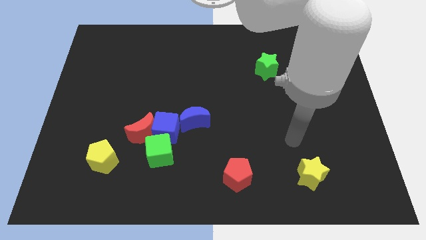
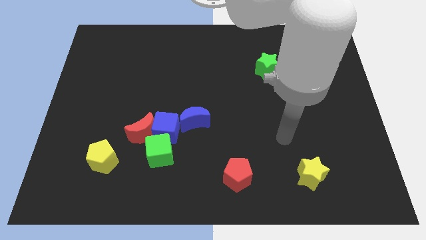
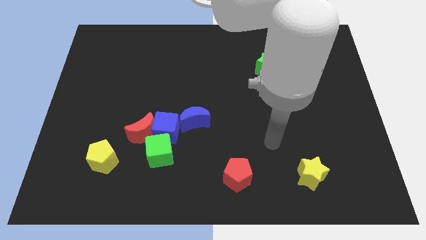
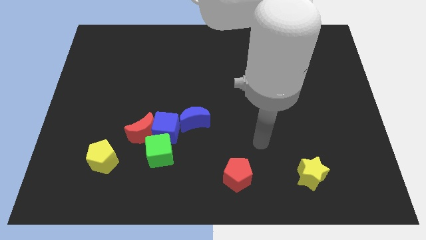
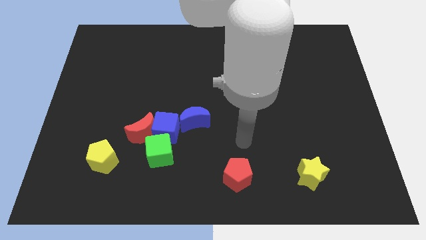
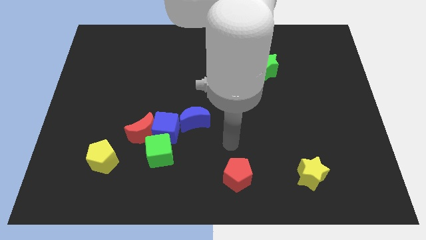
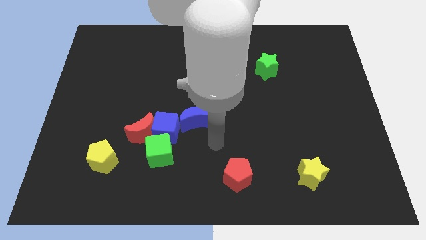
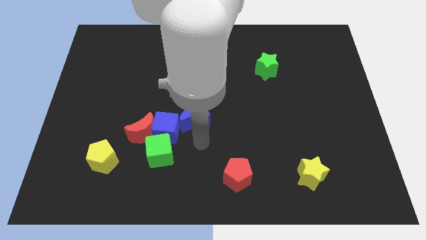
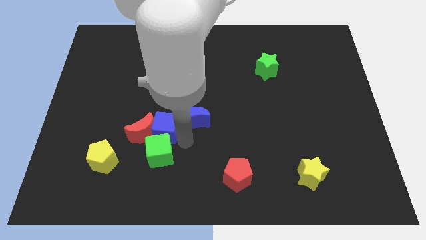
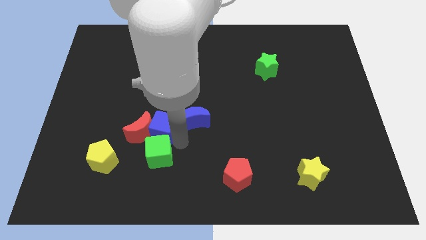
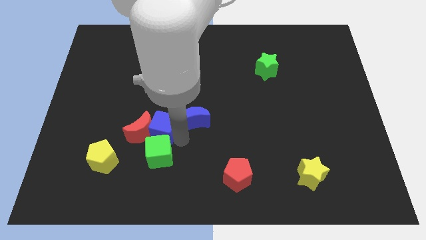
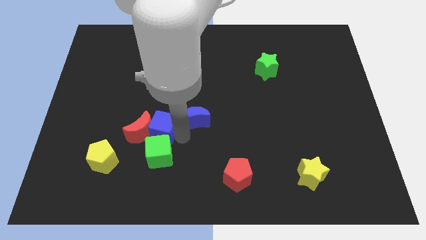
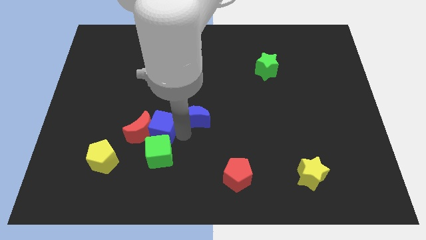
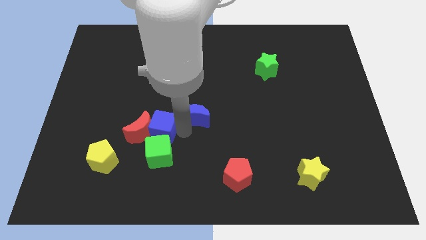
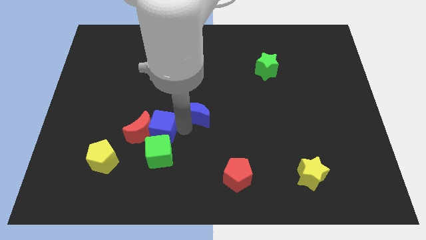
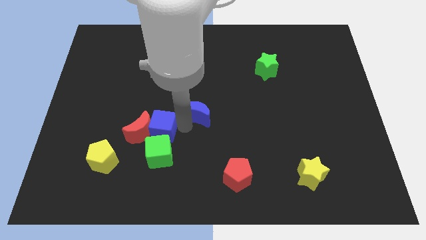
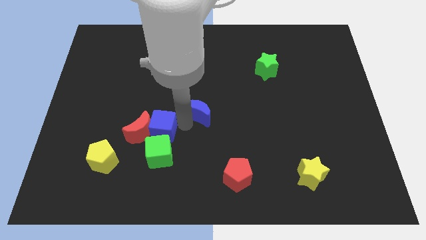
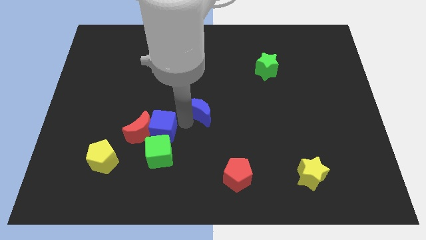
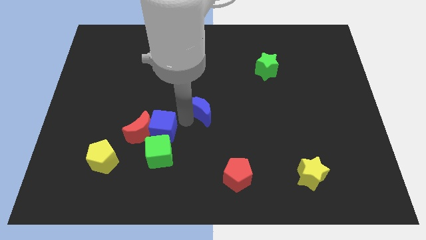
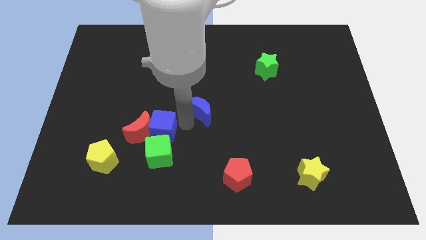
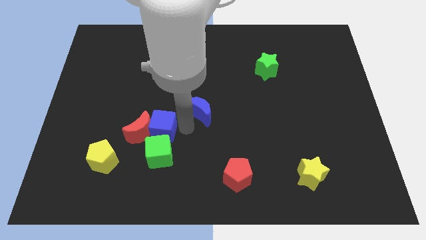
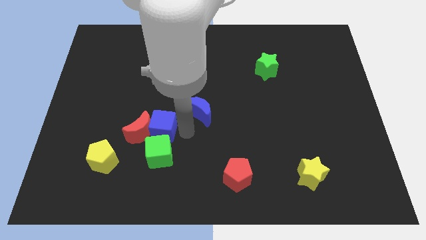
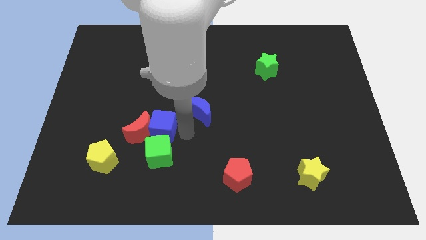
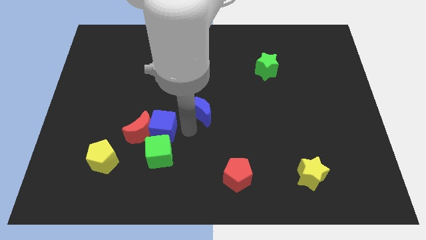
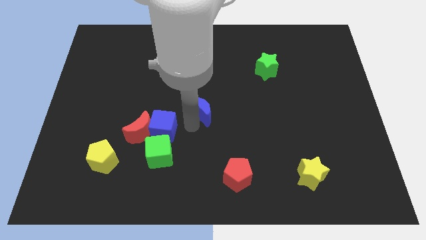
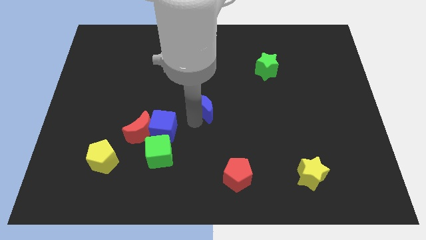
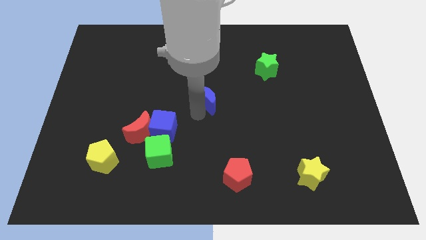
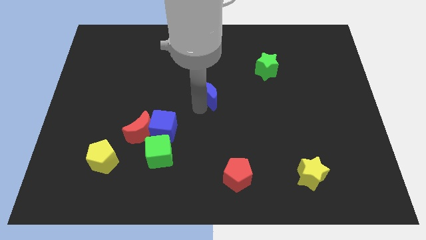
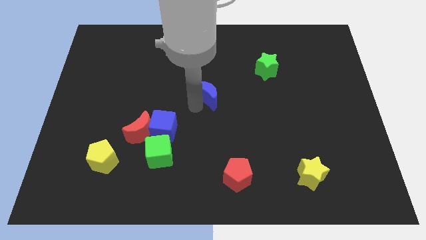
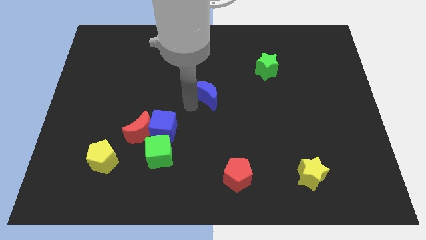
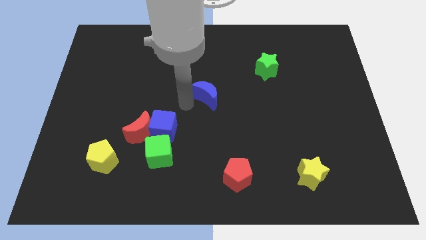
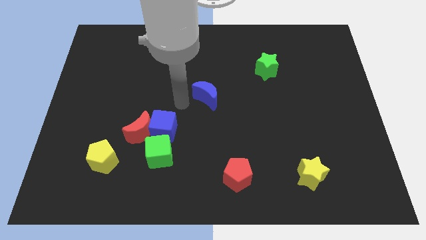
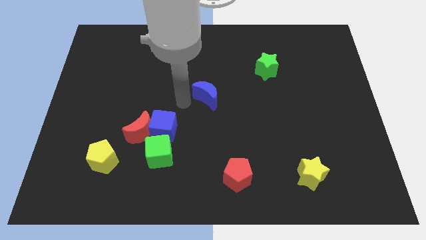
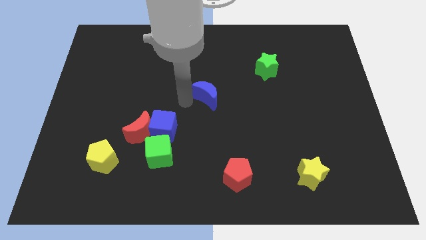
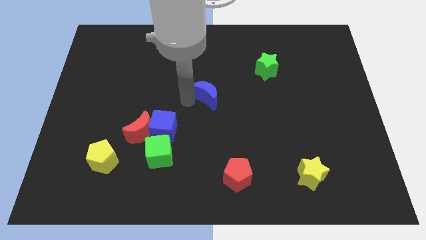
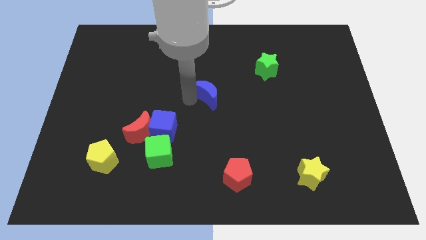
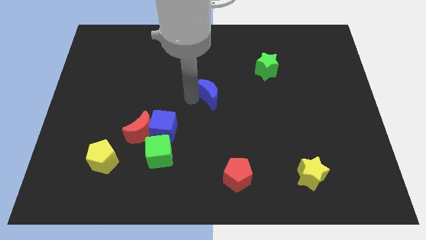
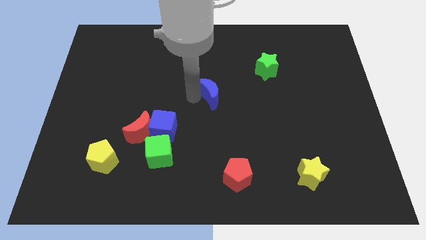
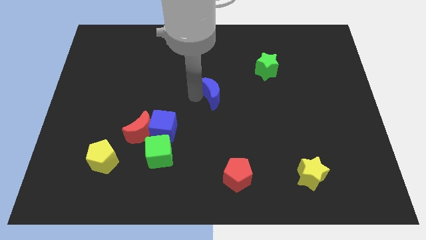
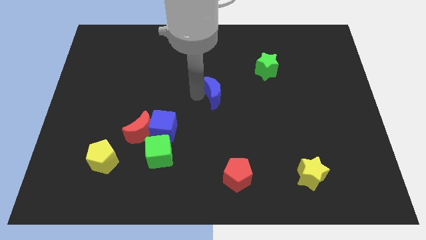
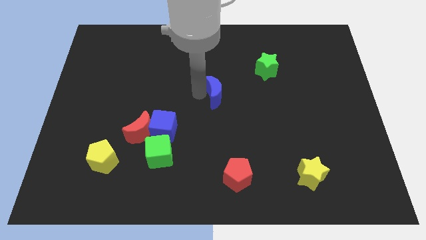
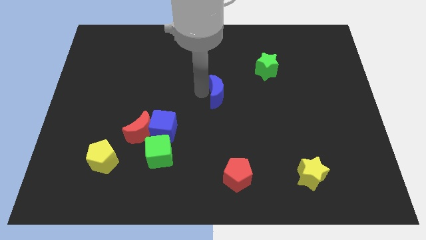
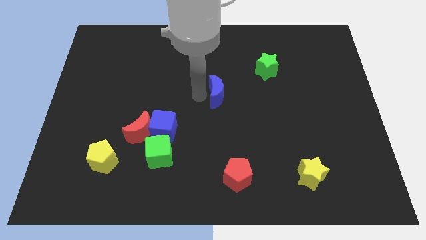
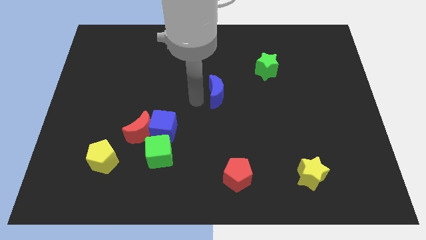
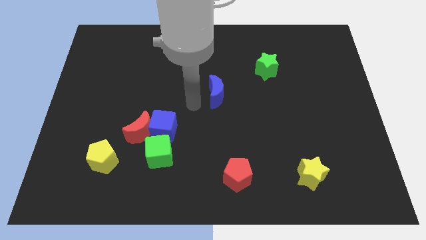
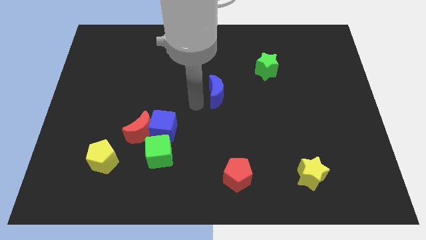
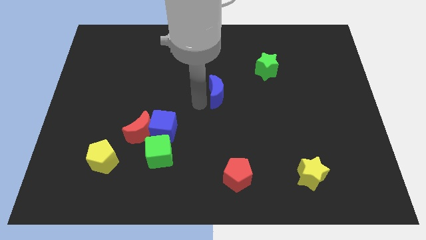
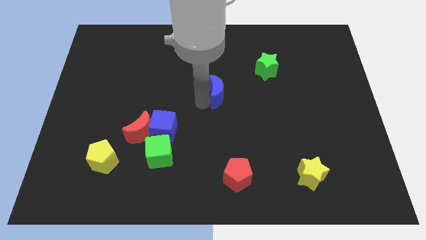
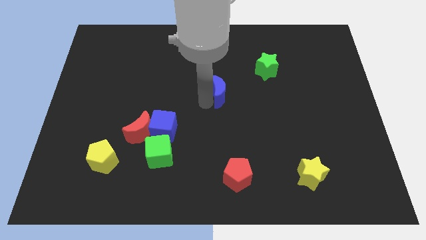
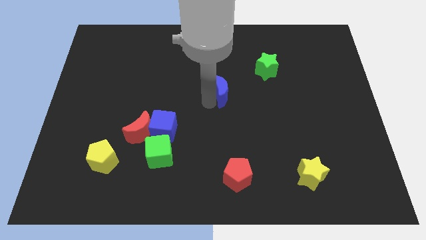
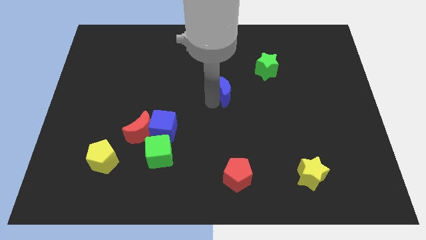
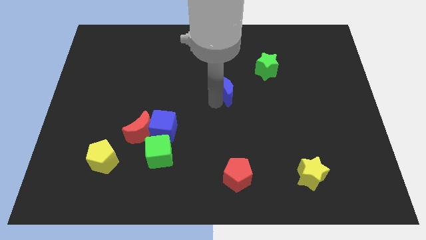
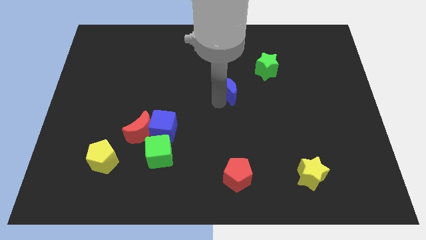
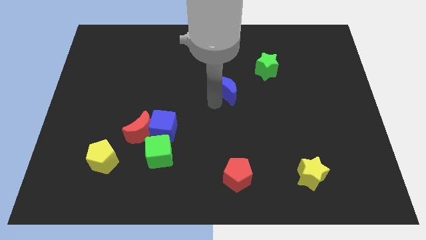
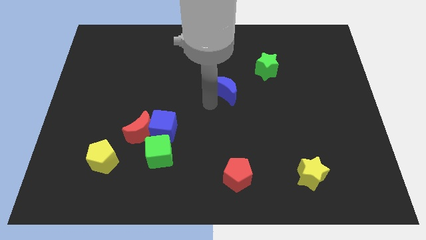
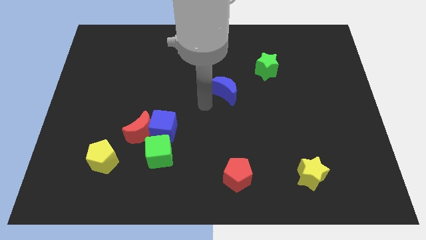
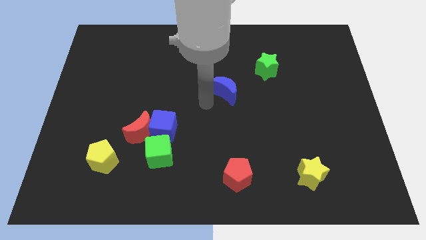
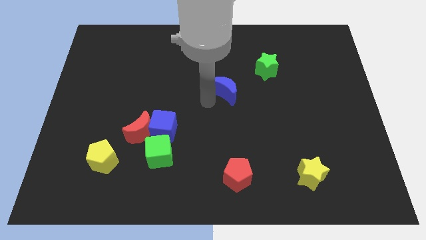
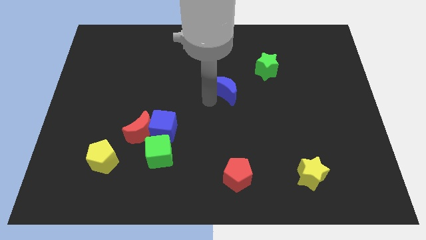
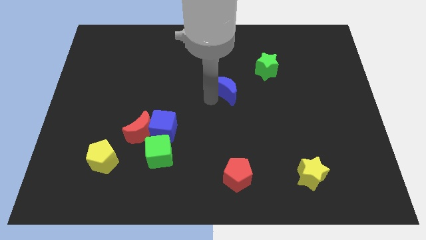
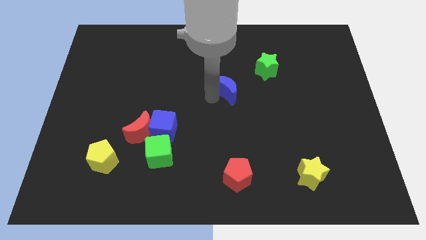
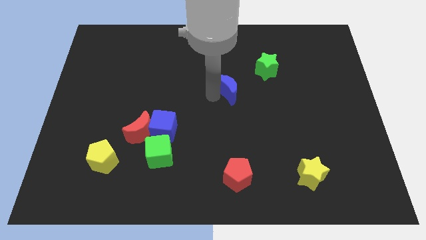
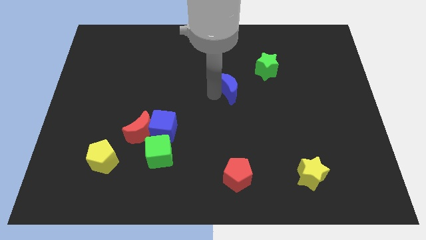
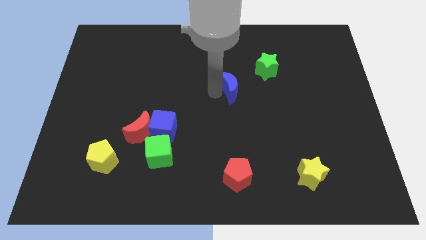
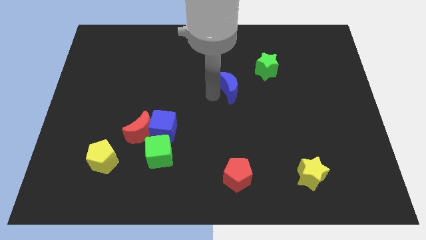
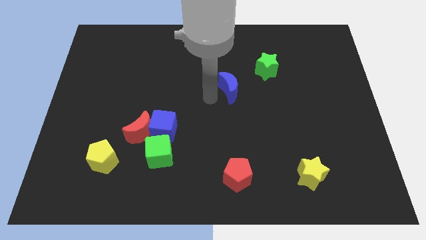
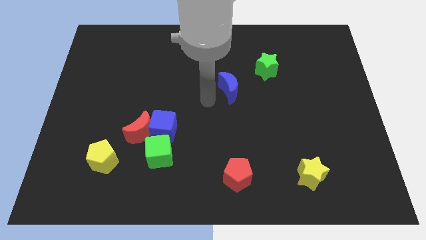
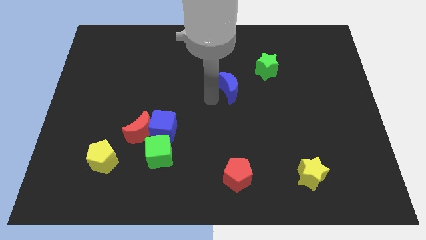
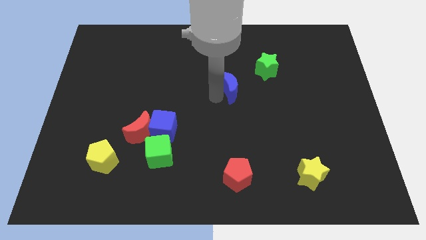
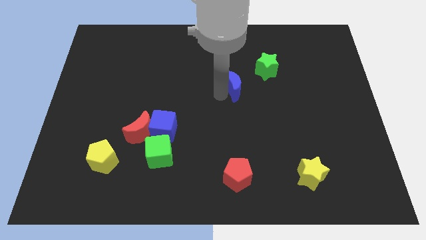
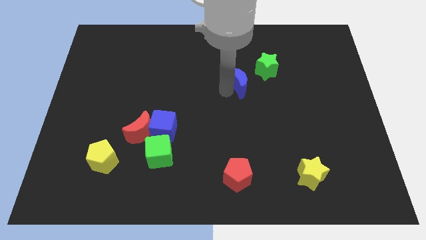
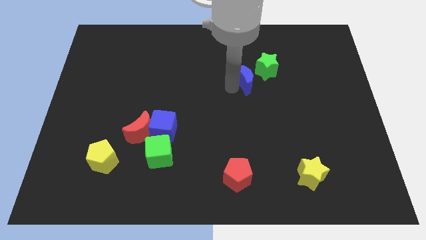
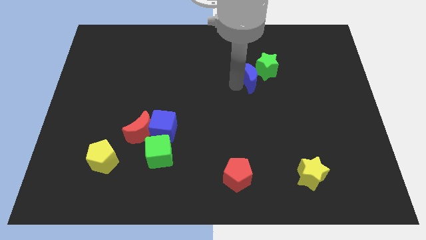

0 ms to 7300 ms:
put the blue moon towards the green star

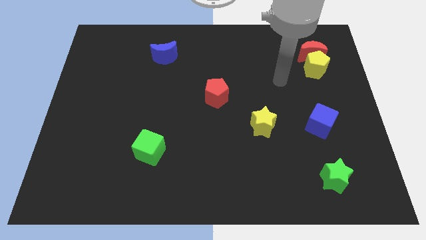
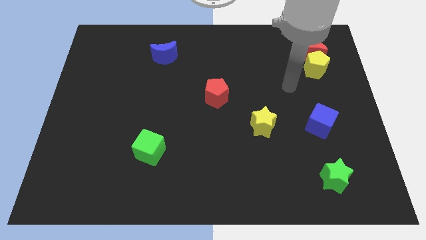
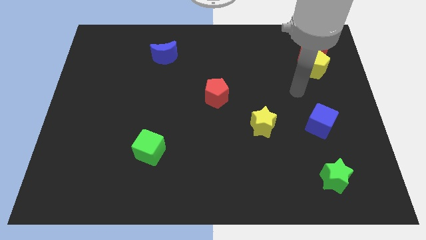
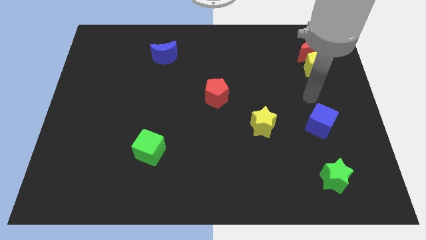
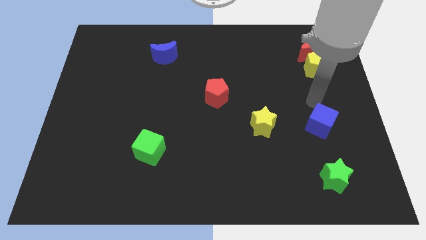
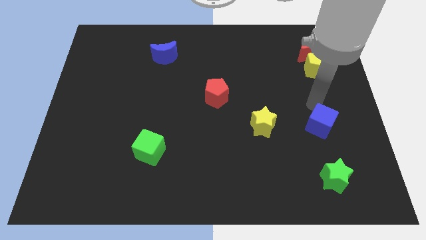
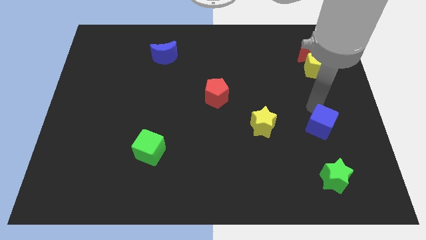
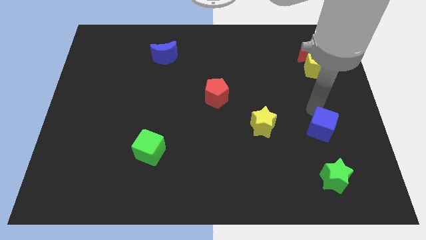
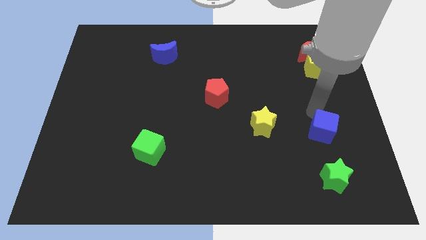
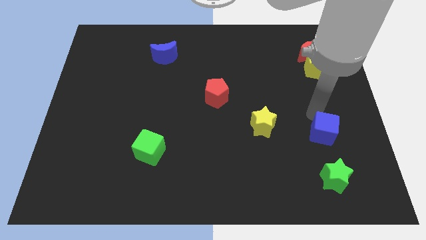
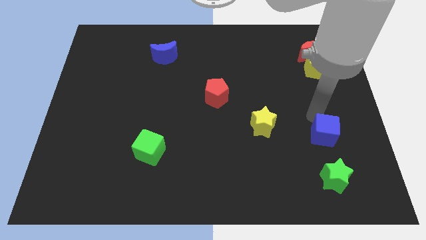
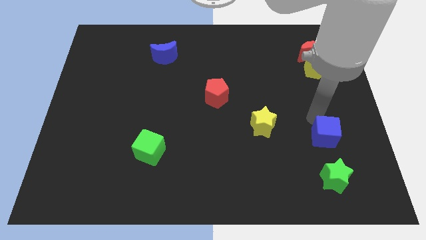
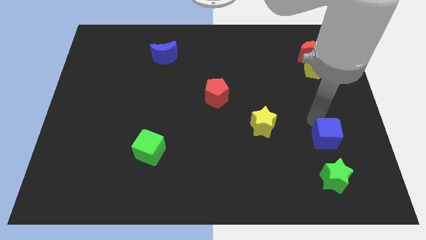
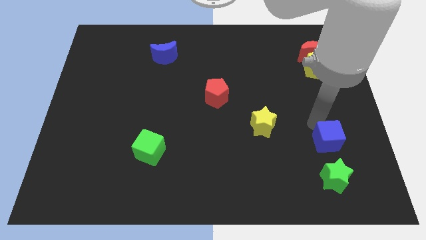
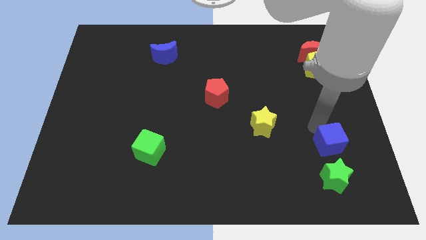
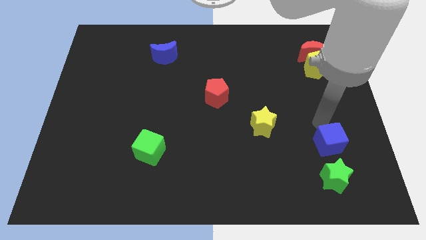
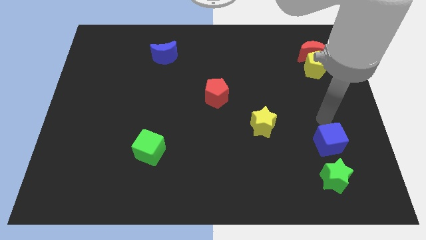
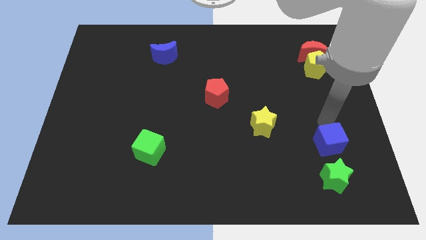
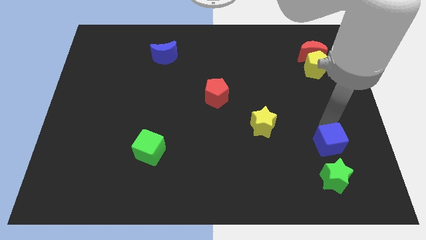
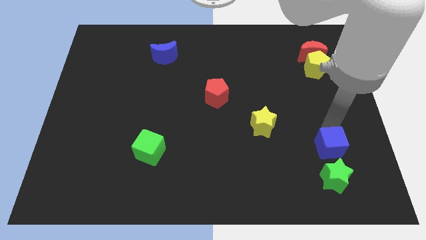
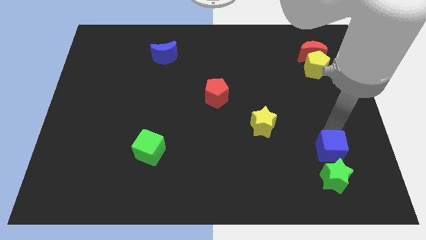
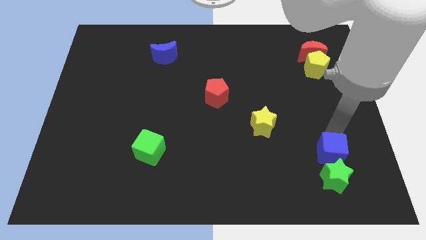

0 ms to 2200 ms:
move the blue cube next to the green star
